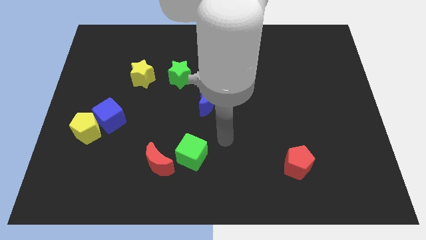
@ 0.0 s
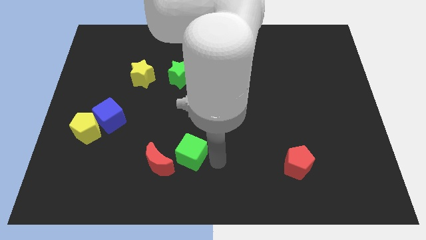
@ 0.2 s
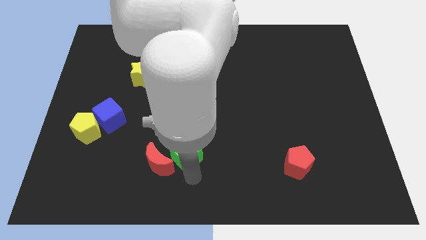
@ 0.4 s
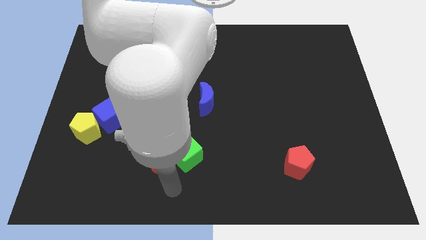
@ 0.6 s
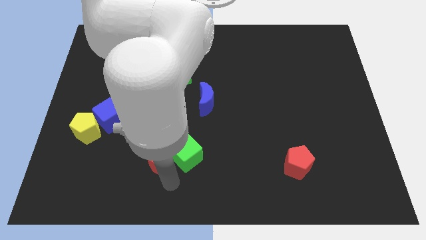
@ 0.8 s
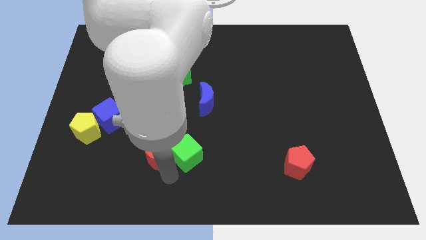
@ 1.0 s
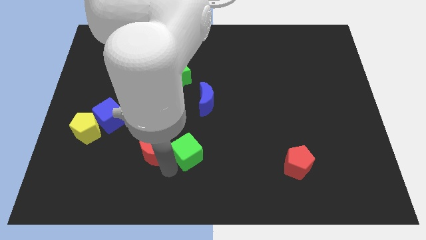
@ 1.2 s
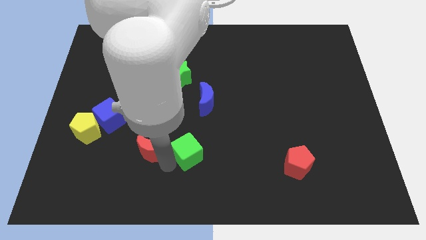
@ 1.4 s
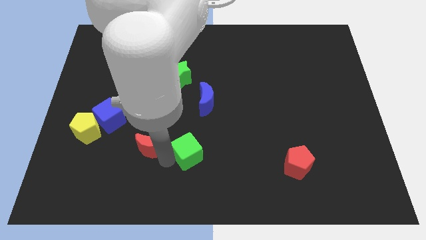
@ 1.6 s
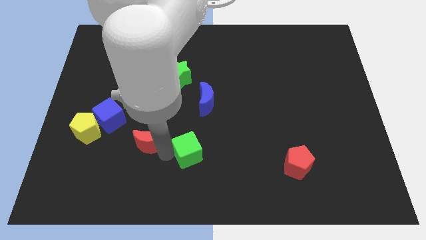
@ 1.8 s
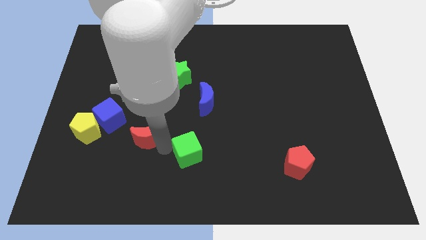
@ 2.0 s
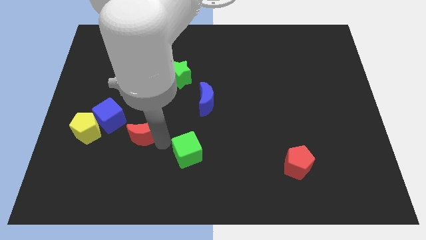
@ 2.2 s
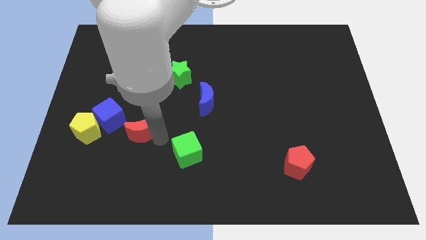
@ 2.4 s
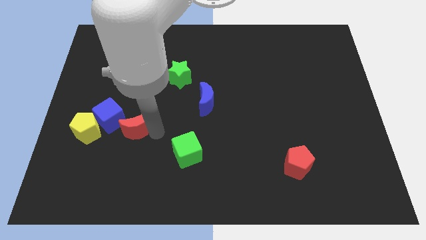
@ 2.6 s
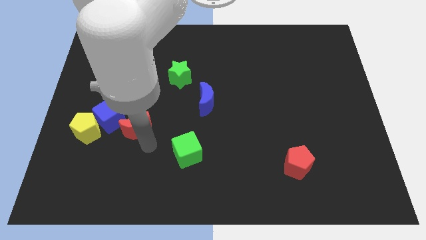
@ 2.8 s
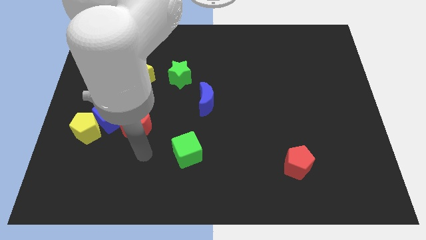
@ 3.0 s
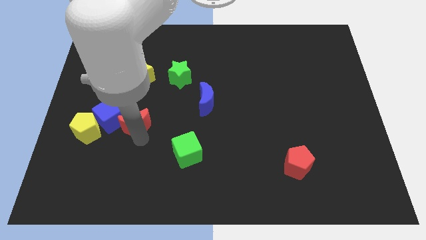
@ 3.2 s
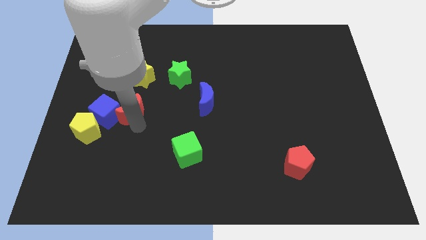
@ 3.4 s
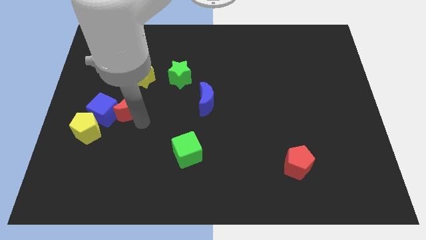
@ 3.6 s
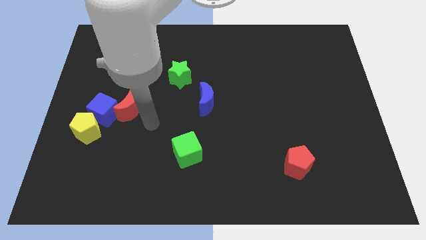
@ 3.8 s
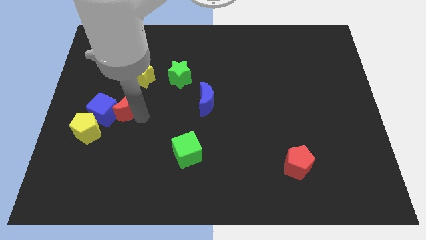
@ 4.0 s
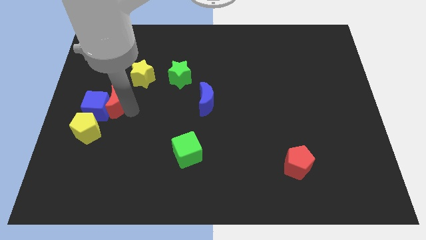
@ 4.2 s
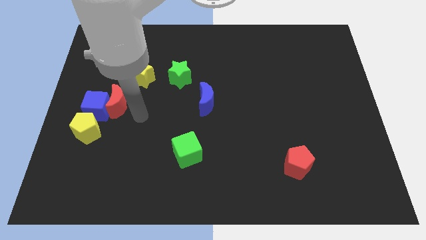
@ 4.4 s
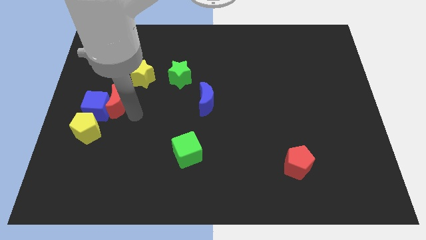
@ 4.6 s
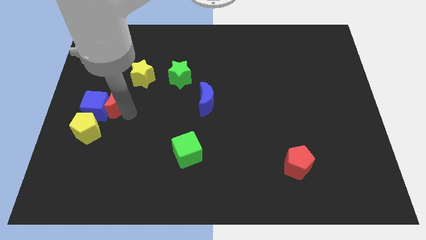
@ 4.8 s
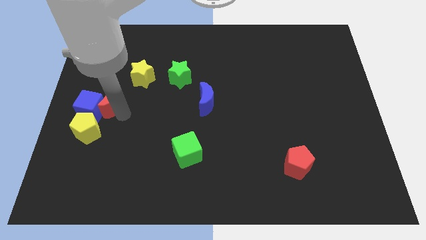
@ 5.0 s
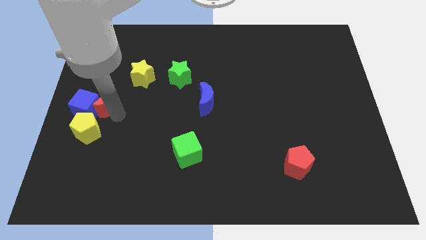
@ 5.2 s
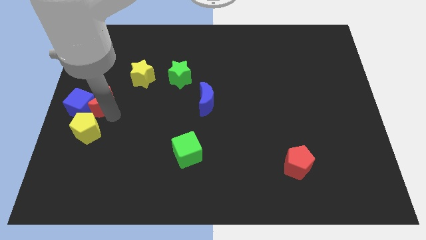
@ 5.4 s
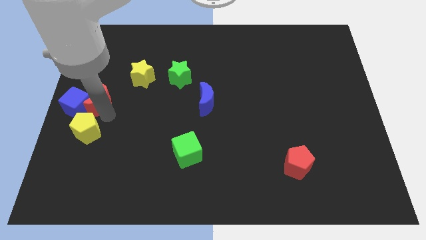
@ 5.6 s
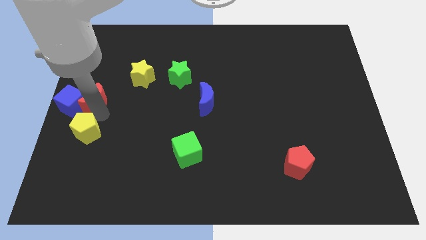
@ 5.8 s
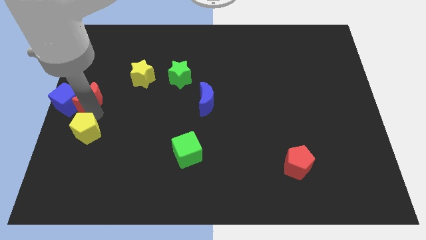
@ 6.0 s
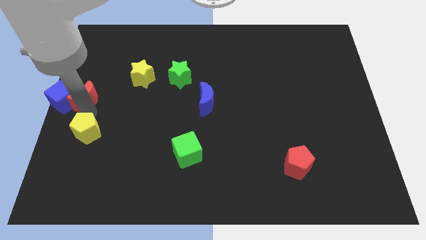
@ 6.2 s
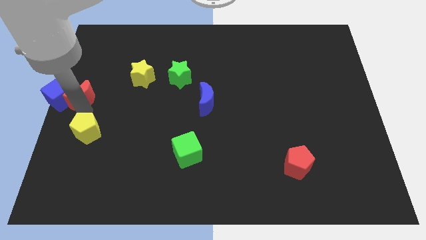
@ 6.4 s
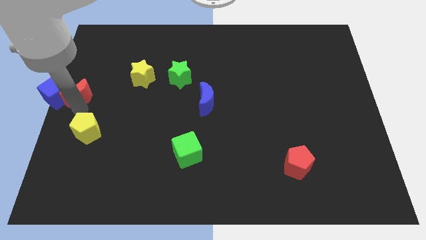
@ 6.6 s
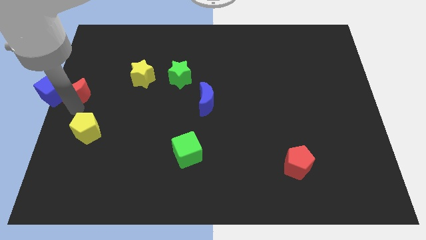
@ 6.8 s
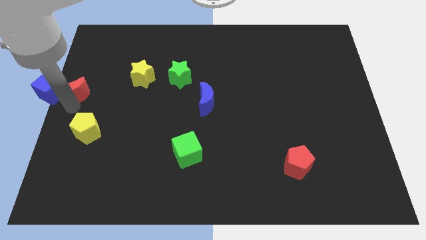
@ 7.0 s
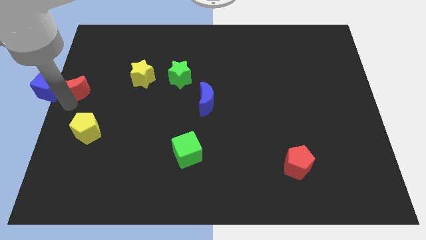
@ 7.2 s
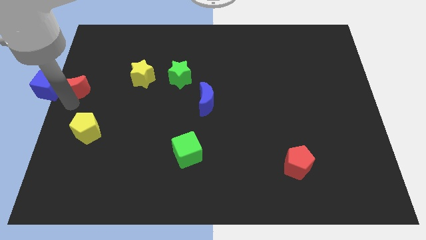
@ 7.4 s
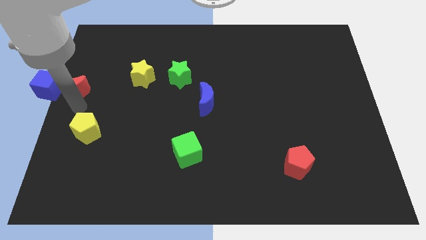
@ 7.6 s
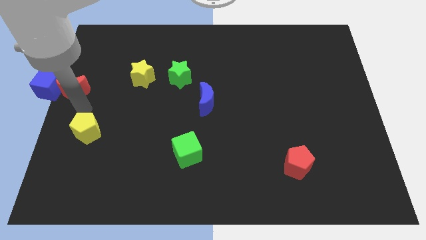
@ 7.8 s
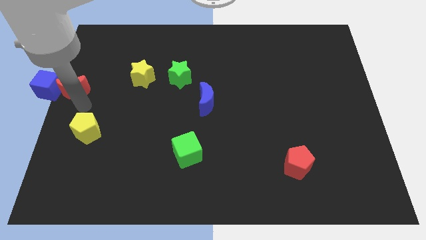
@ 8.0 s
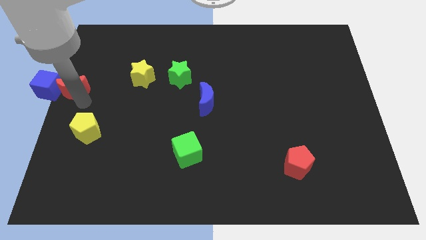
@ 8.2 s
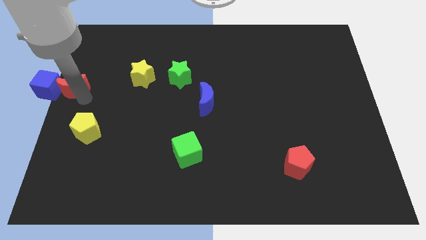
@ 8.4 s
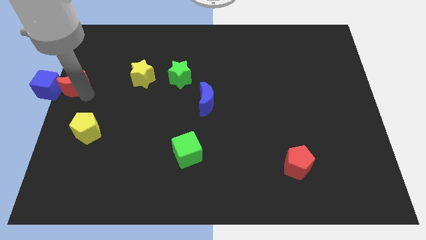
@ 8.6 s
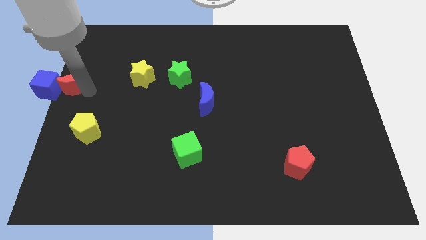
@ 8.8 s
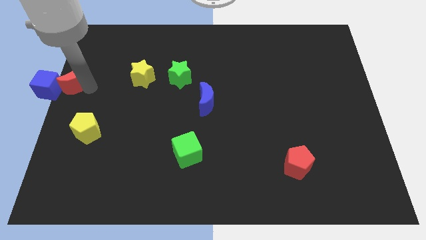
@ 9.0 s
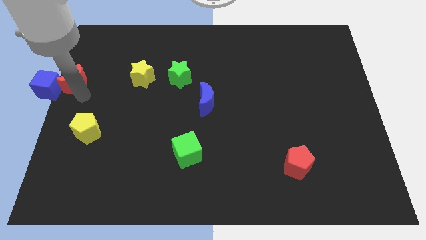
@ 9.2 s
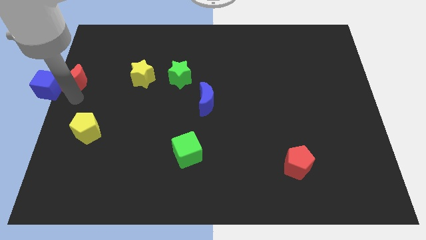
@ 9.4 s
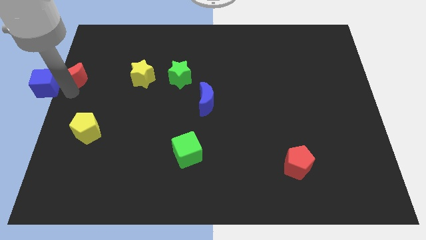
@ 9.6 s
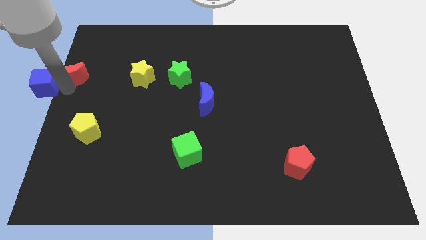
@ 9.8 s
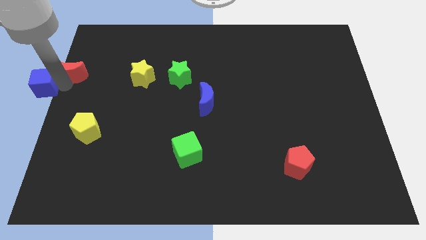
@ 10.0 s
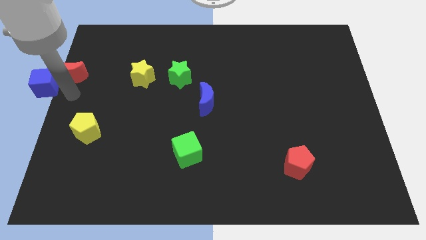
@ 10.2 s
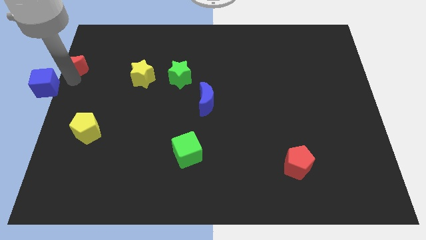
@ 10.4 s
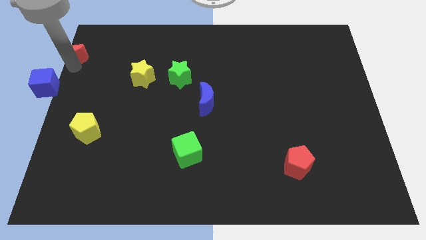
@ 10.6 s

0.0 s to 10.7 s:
put the red moon to the top left

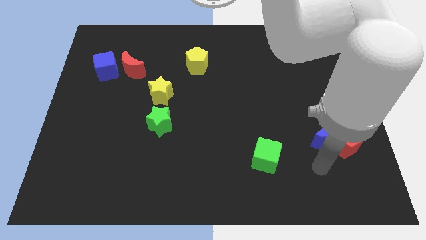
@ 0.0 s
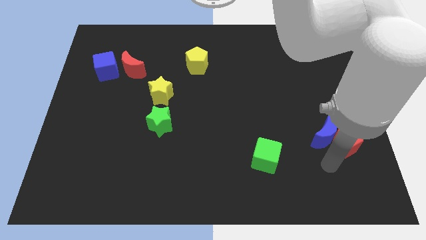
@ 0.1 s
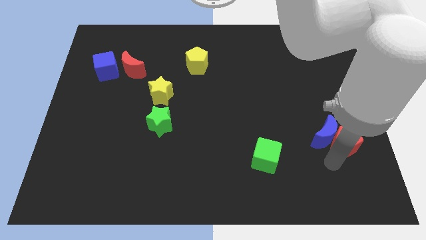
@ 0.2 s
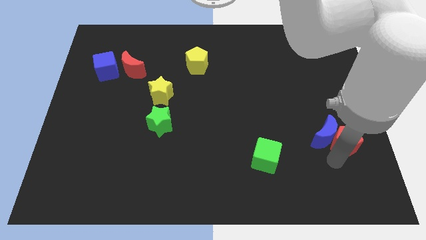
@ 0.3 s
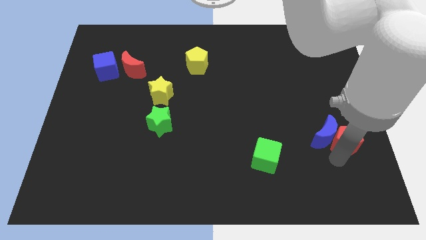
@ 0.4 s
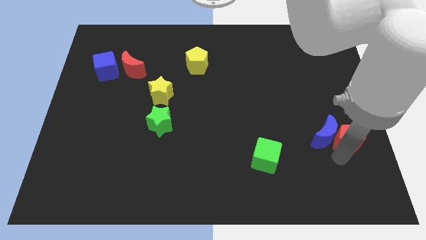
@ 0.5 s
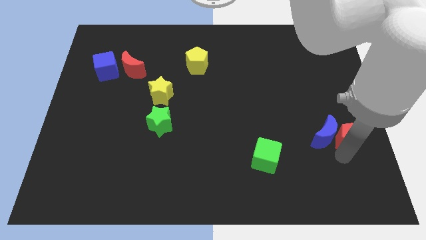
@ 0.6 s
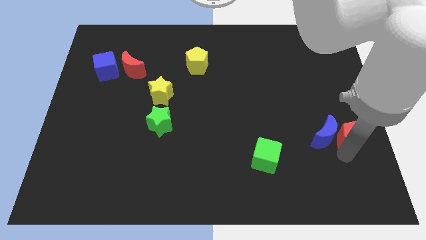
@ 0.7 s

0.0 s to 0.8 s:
move the red pentagon to the right side of the board
